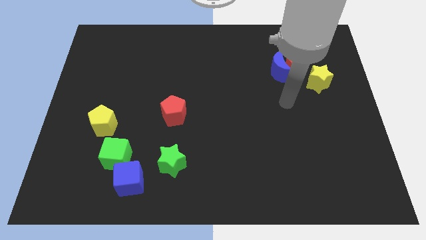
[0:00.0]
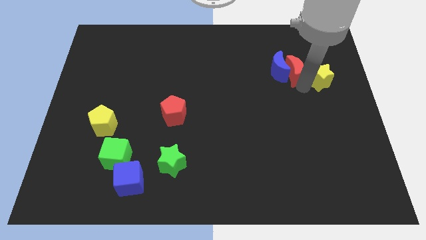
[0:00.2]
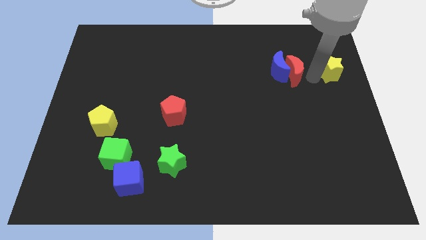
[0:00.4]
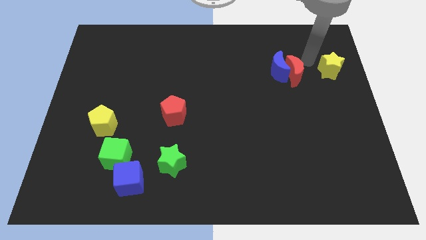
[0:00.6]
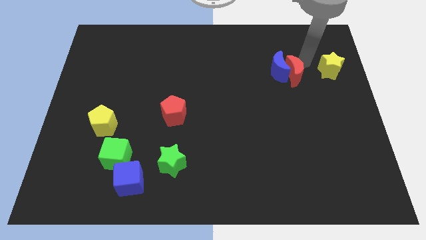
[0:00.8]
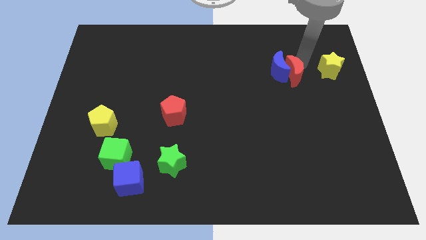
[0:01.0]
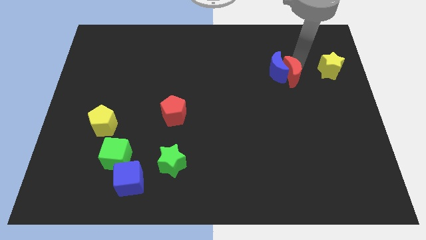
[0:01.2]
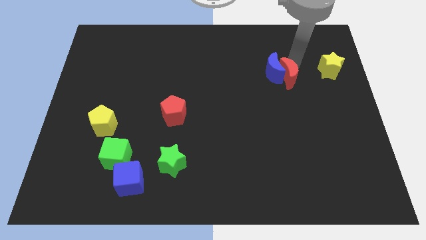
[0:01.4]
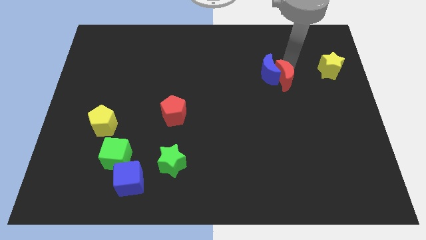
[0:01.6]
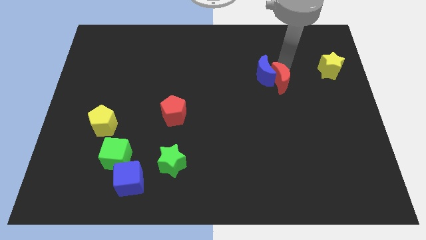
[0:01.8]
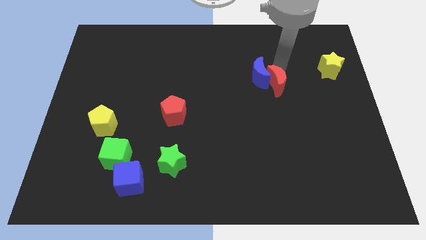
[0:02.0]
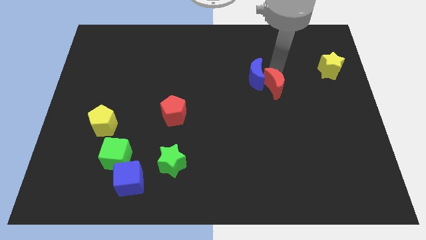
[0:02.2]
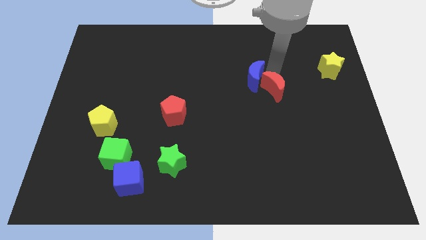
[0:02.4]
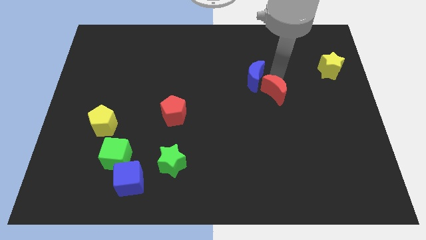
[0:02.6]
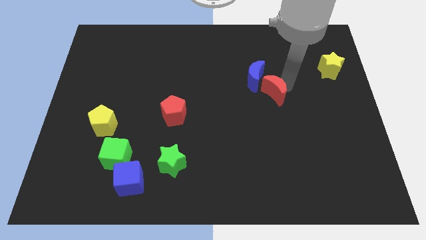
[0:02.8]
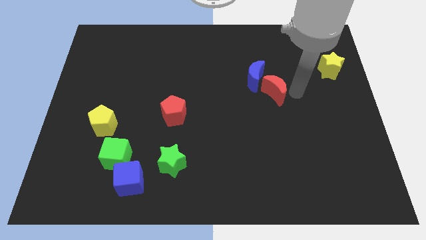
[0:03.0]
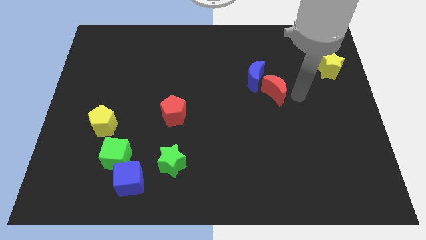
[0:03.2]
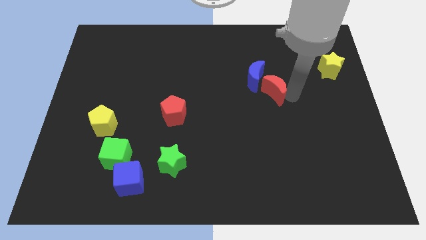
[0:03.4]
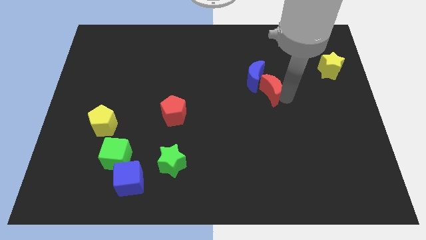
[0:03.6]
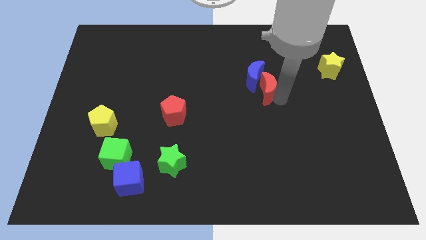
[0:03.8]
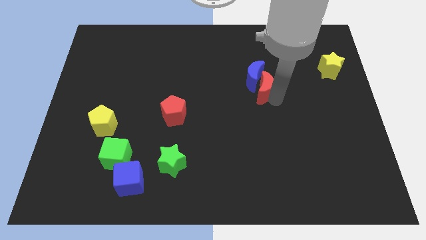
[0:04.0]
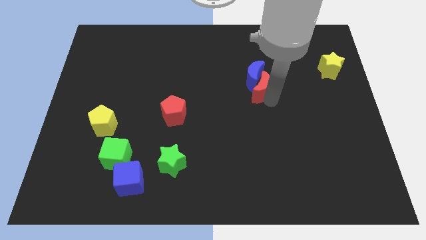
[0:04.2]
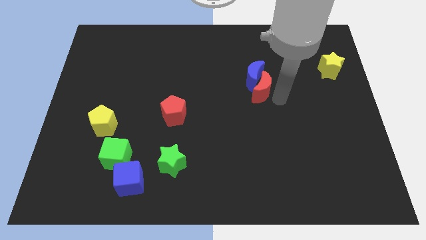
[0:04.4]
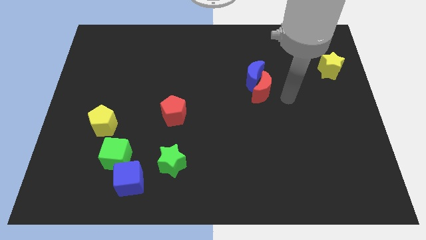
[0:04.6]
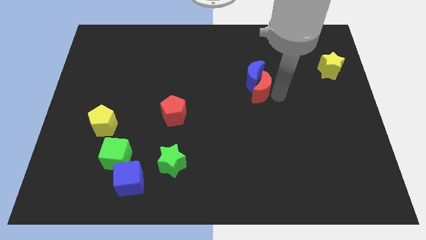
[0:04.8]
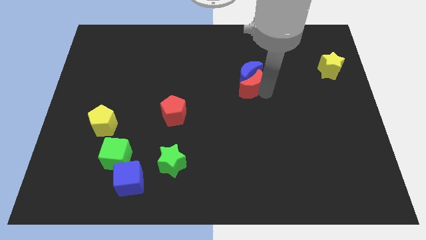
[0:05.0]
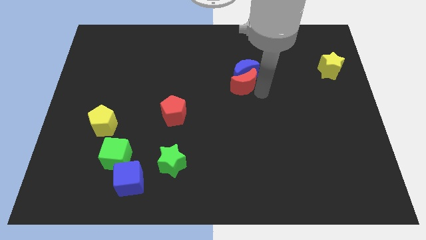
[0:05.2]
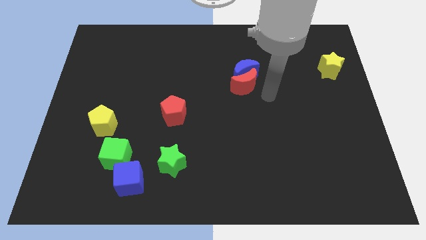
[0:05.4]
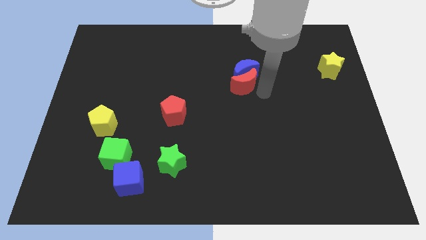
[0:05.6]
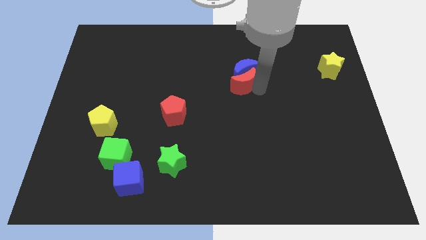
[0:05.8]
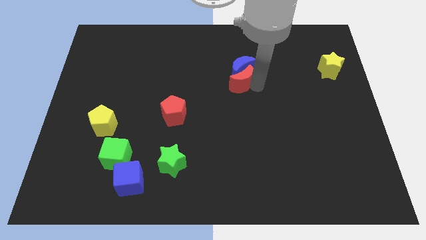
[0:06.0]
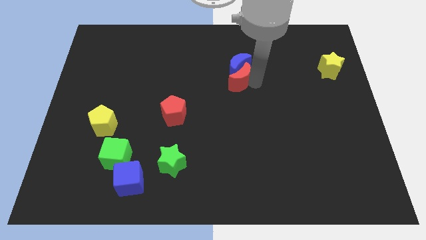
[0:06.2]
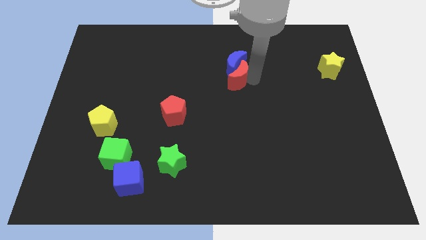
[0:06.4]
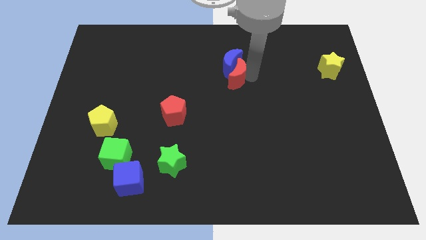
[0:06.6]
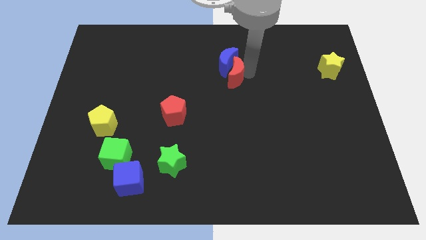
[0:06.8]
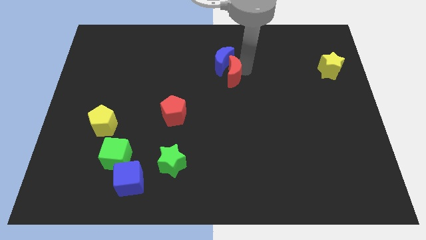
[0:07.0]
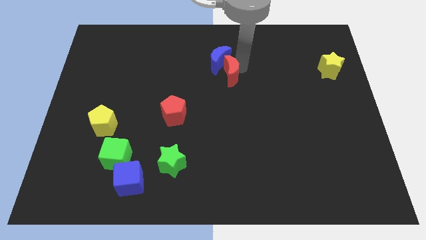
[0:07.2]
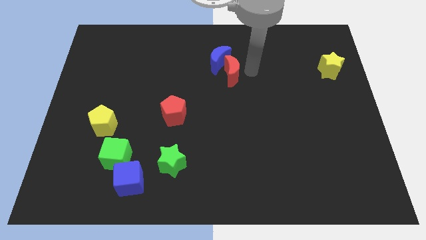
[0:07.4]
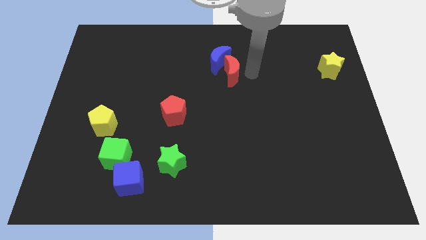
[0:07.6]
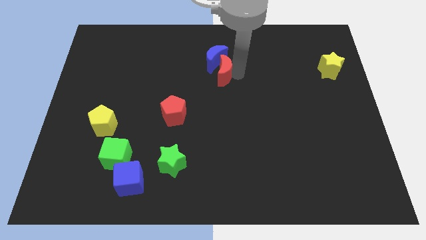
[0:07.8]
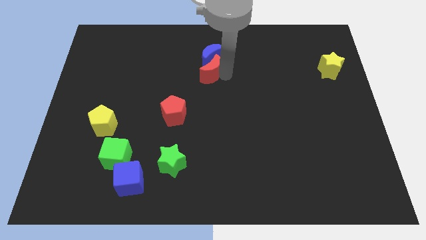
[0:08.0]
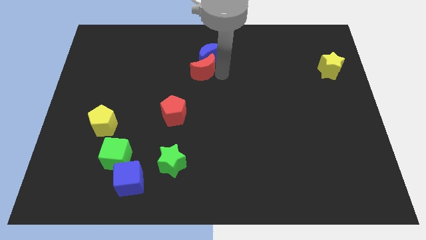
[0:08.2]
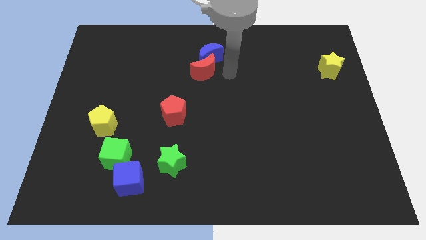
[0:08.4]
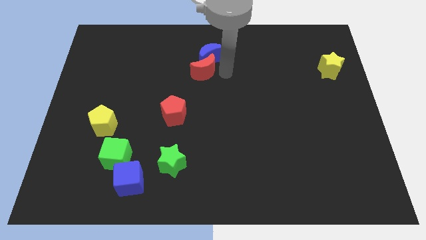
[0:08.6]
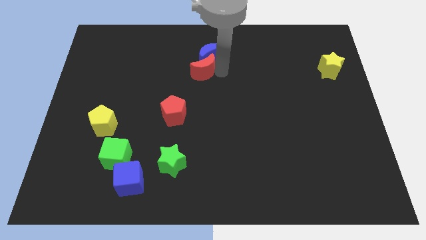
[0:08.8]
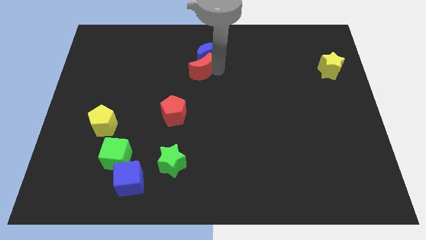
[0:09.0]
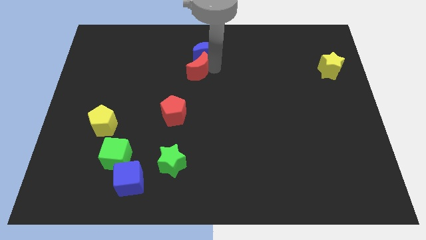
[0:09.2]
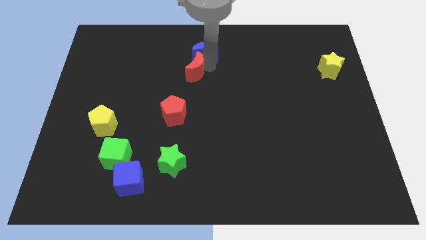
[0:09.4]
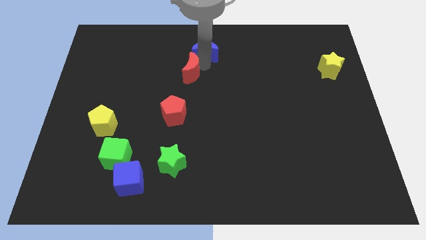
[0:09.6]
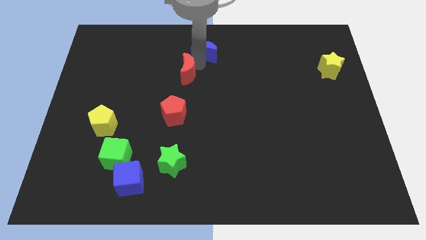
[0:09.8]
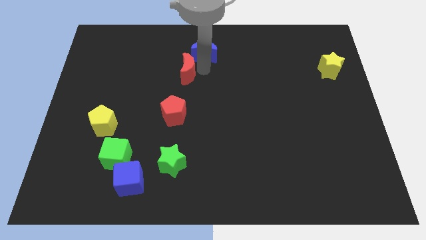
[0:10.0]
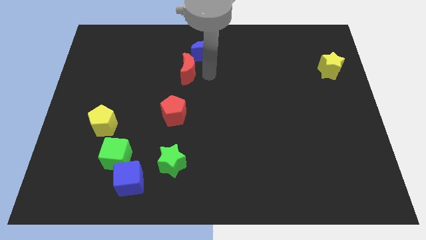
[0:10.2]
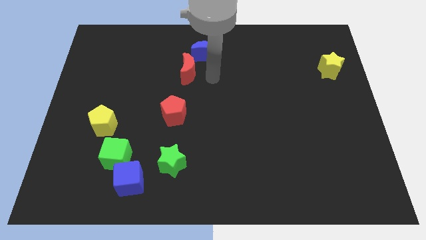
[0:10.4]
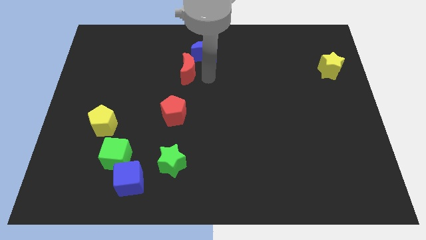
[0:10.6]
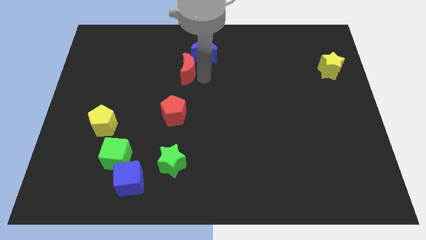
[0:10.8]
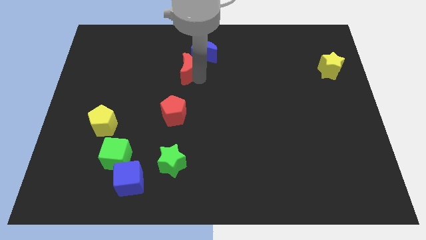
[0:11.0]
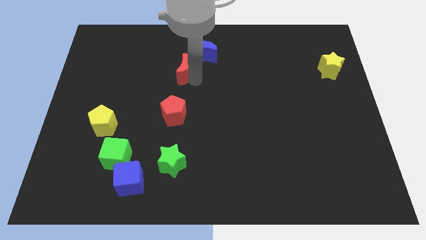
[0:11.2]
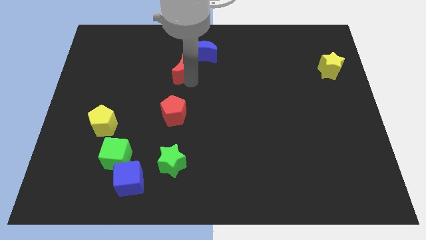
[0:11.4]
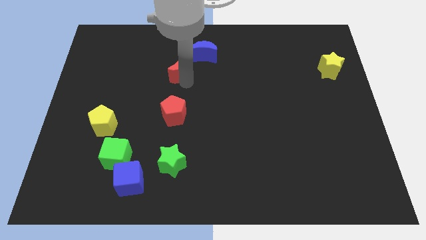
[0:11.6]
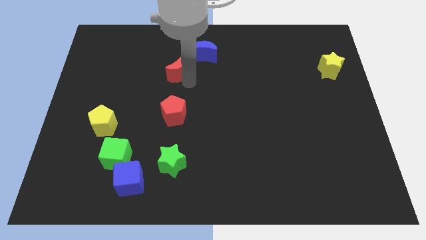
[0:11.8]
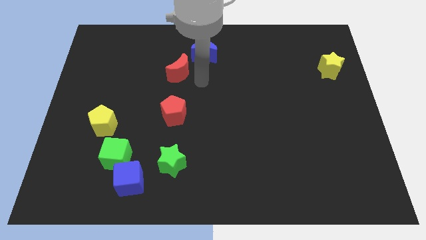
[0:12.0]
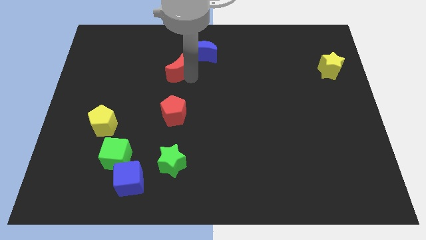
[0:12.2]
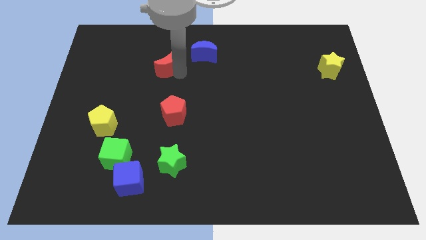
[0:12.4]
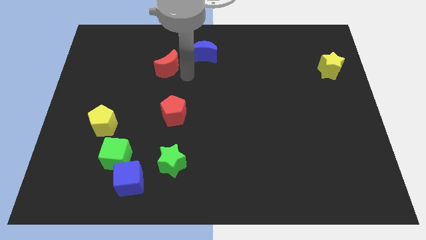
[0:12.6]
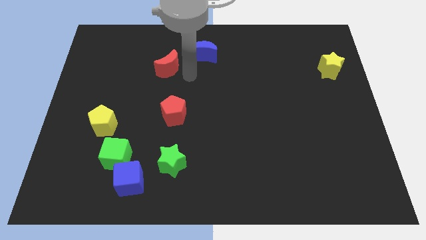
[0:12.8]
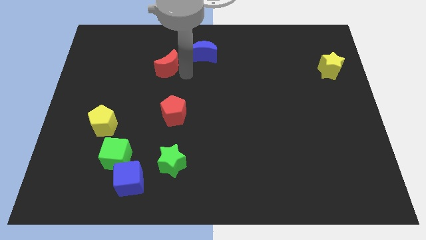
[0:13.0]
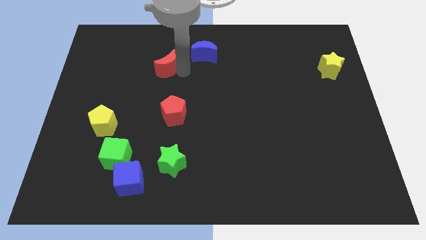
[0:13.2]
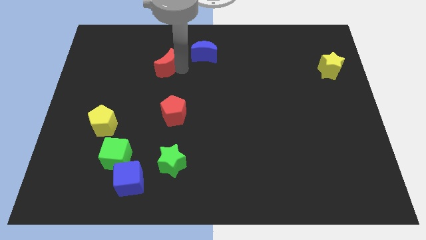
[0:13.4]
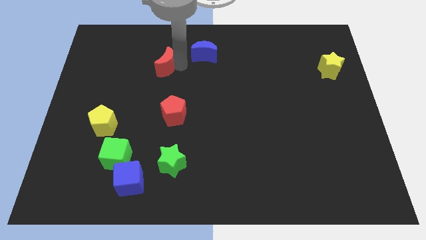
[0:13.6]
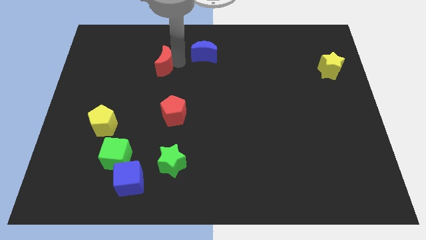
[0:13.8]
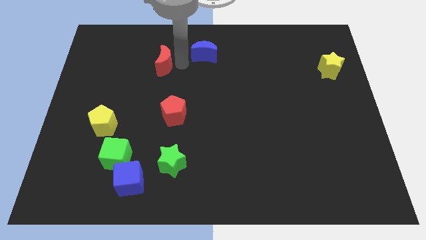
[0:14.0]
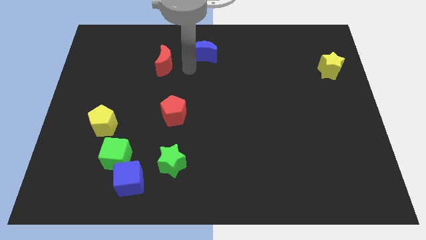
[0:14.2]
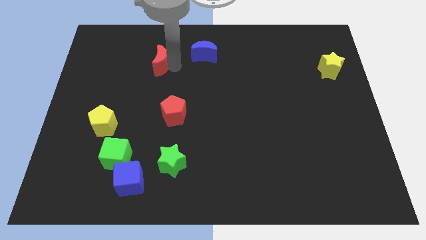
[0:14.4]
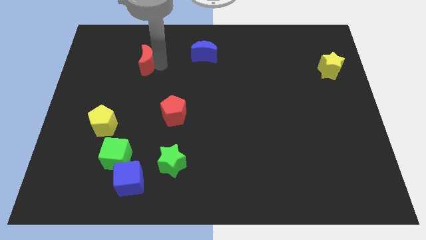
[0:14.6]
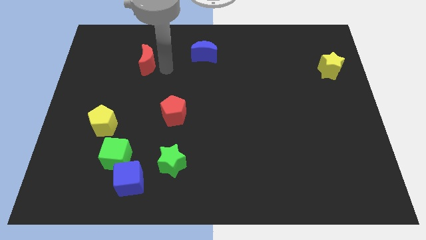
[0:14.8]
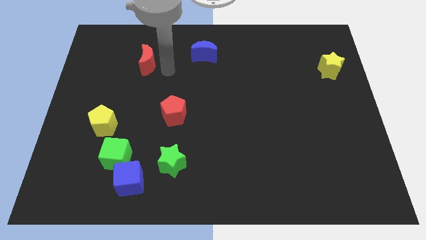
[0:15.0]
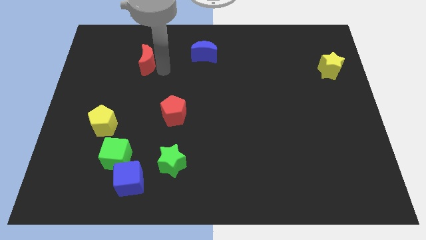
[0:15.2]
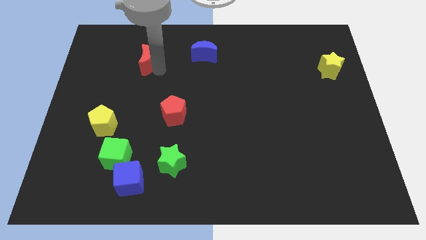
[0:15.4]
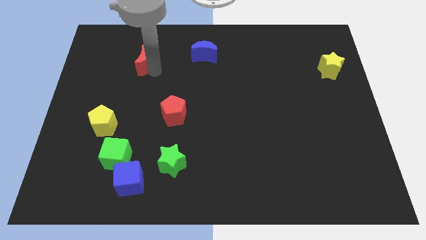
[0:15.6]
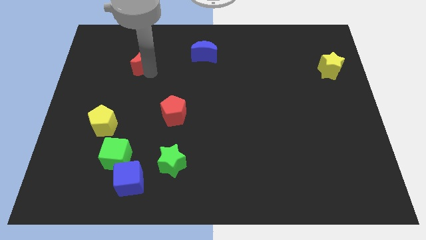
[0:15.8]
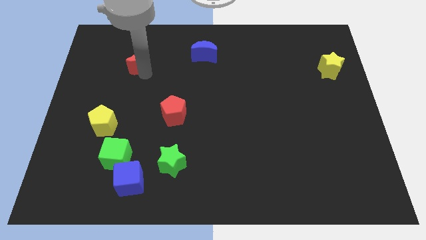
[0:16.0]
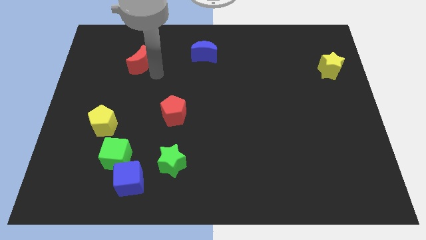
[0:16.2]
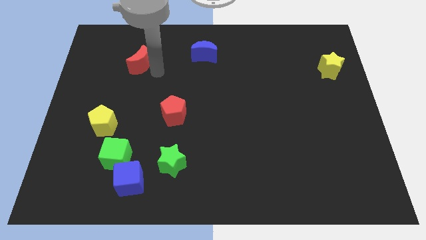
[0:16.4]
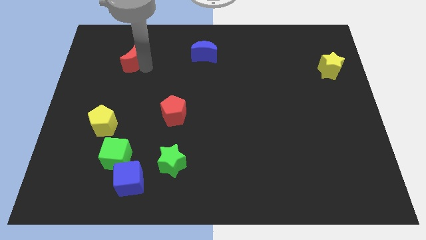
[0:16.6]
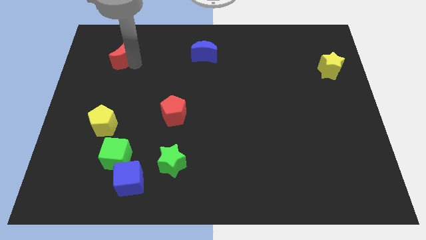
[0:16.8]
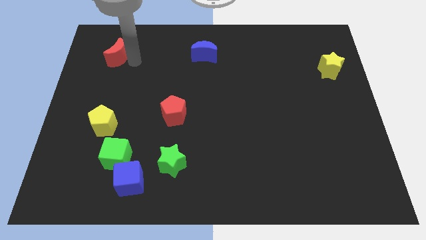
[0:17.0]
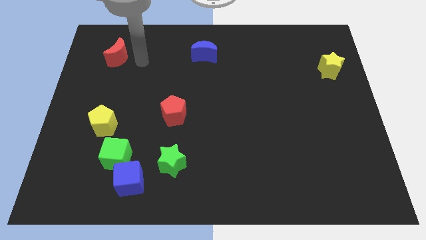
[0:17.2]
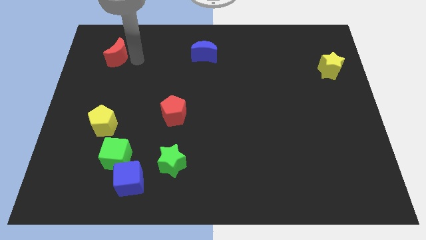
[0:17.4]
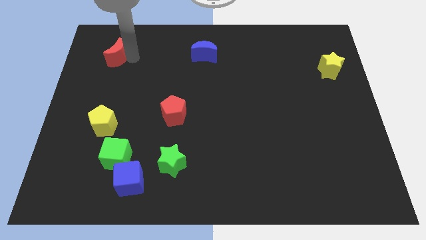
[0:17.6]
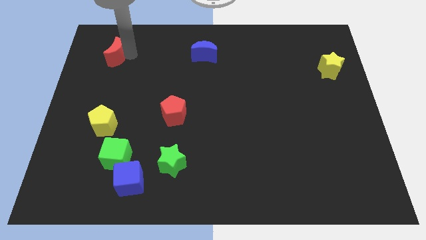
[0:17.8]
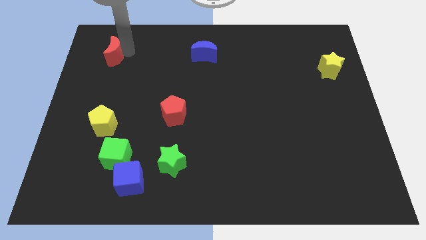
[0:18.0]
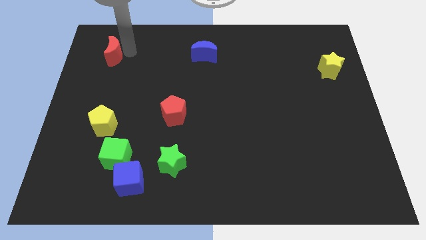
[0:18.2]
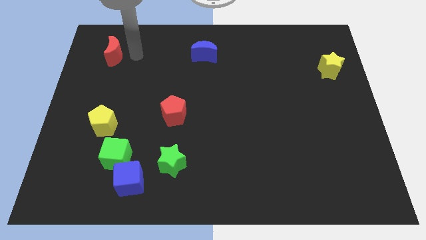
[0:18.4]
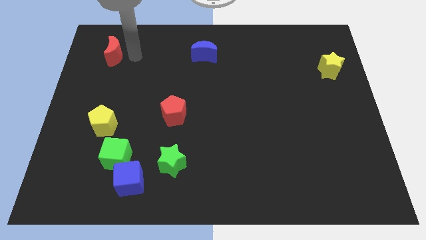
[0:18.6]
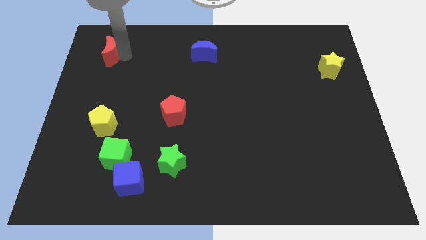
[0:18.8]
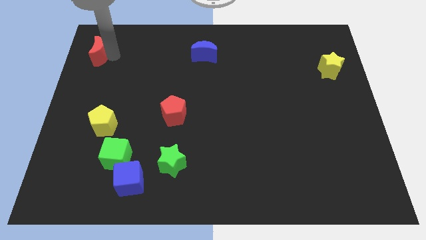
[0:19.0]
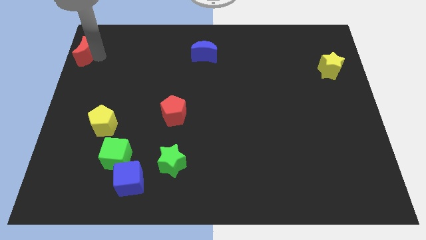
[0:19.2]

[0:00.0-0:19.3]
push the red moon to the top left corner
